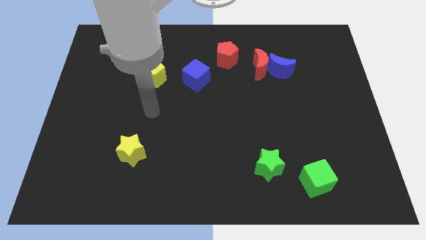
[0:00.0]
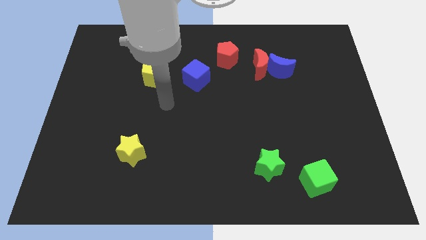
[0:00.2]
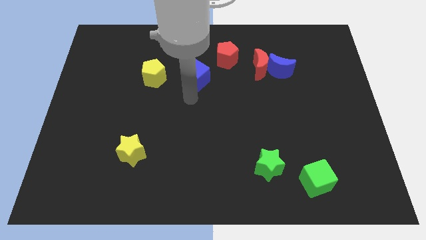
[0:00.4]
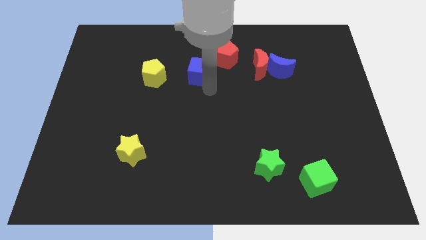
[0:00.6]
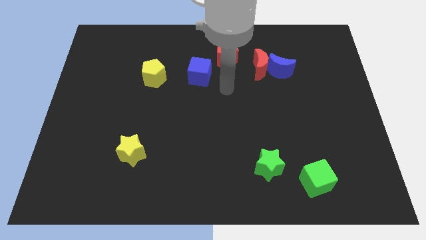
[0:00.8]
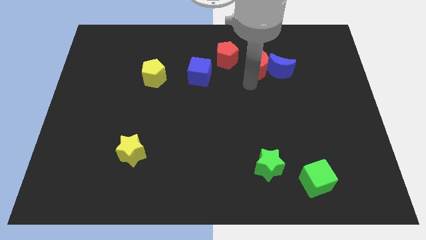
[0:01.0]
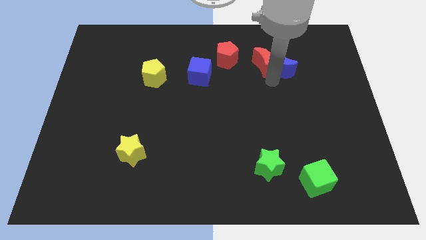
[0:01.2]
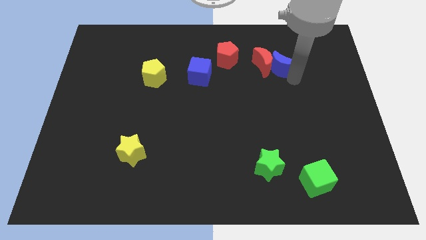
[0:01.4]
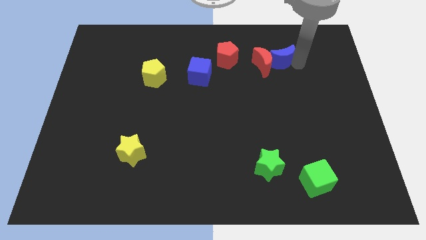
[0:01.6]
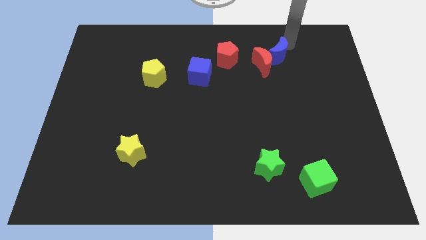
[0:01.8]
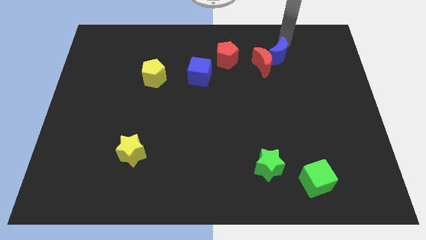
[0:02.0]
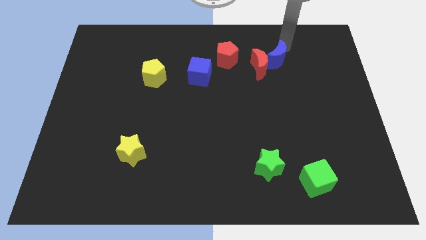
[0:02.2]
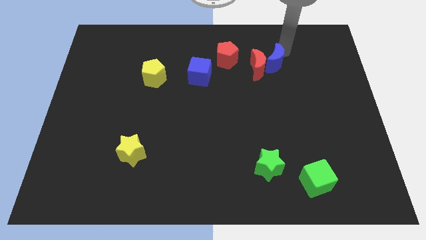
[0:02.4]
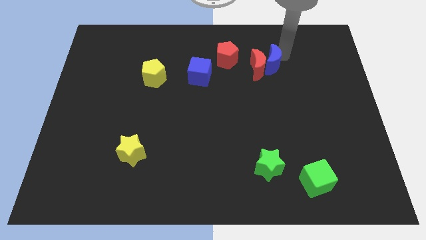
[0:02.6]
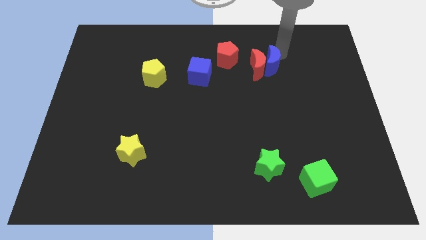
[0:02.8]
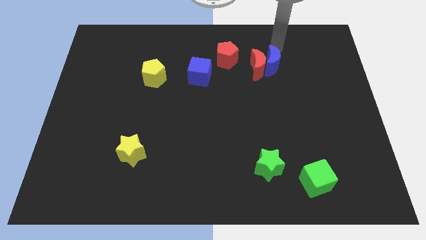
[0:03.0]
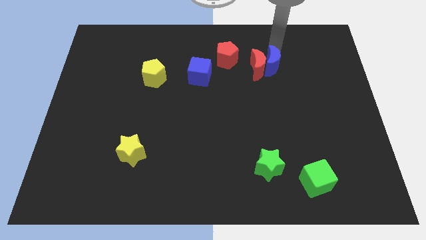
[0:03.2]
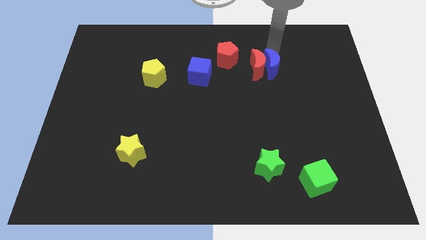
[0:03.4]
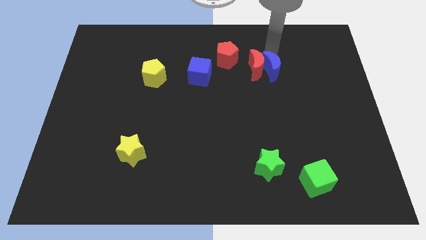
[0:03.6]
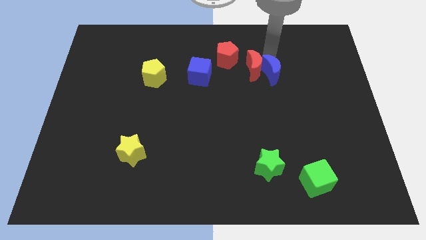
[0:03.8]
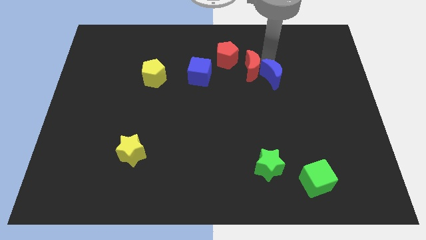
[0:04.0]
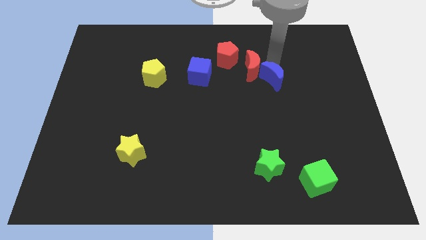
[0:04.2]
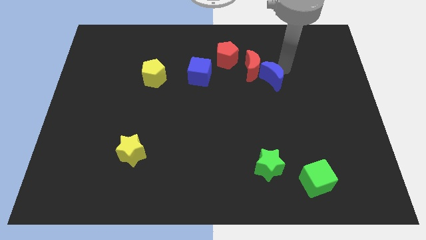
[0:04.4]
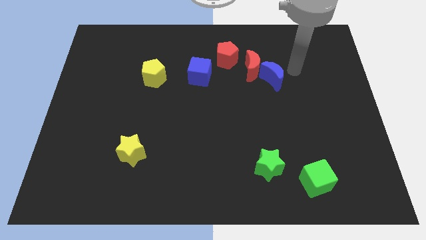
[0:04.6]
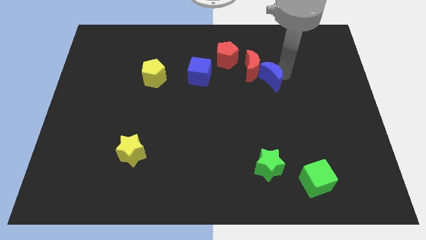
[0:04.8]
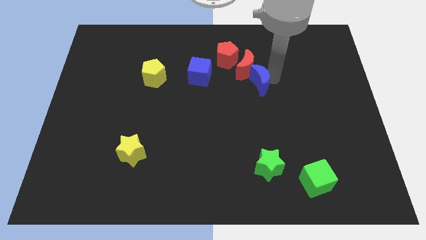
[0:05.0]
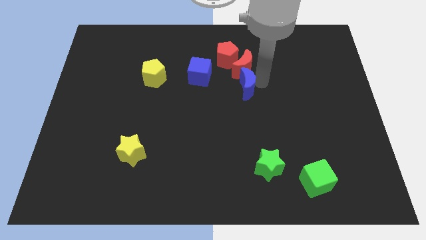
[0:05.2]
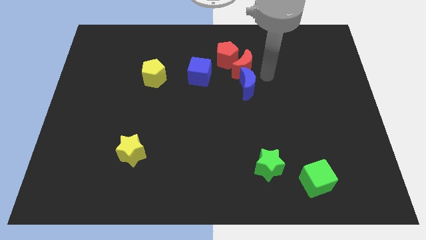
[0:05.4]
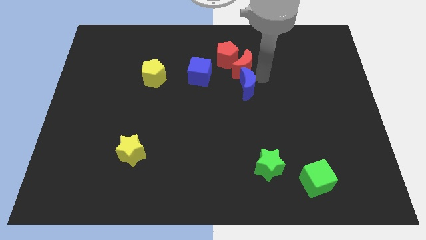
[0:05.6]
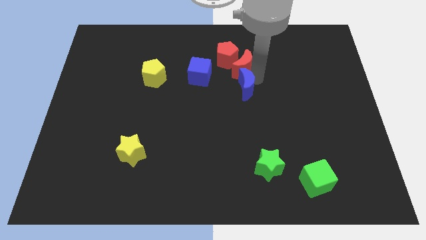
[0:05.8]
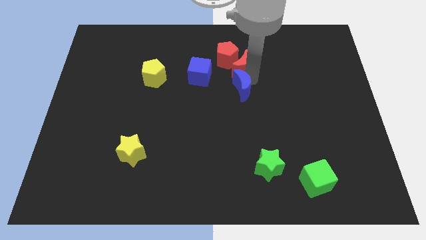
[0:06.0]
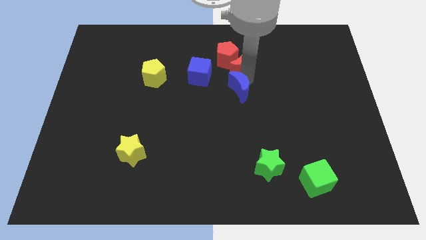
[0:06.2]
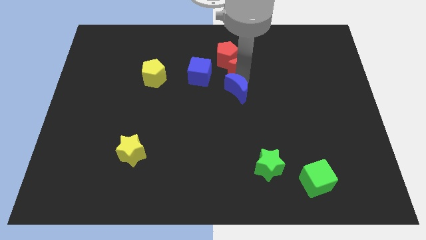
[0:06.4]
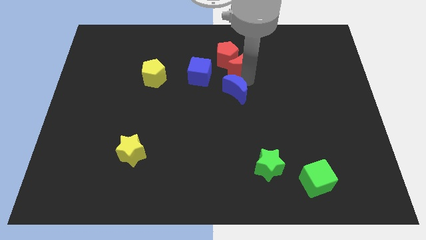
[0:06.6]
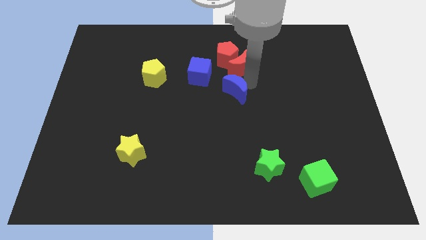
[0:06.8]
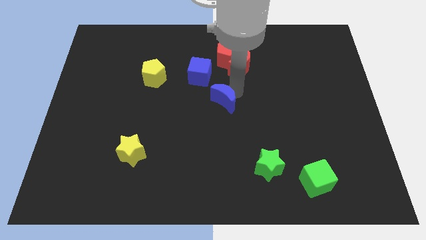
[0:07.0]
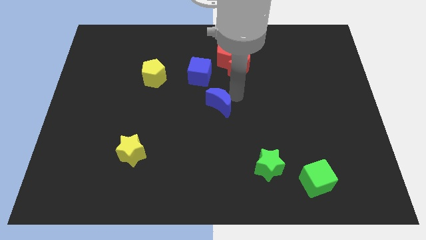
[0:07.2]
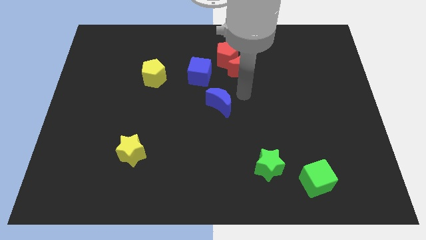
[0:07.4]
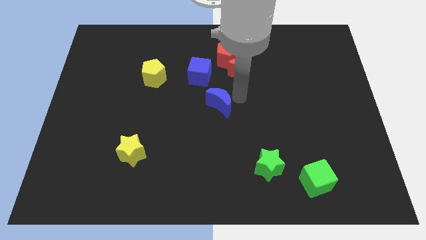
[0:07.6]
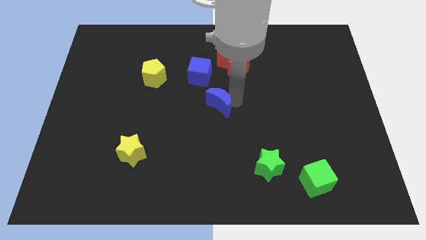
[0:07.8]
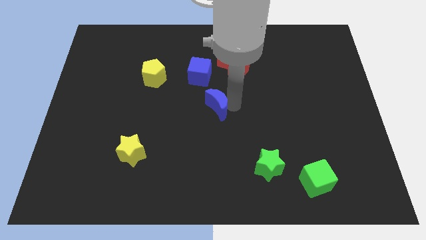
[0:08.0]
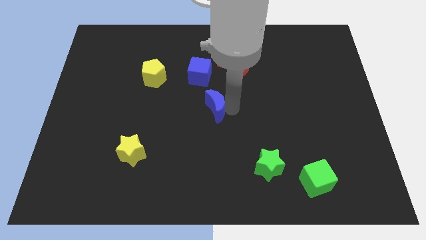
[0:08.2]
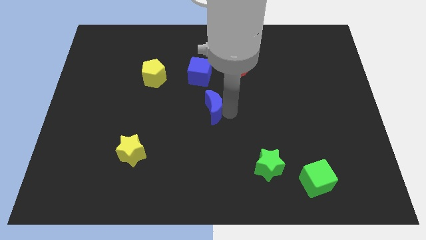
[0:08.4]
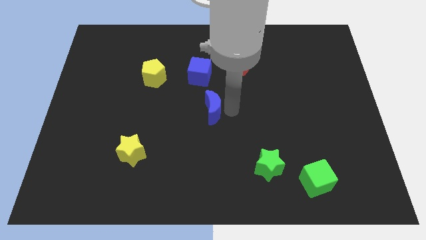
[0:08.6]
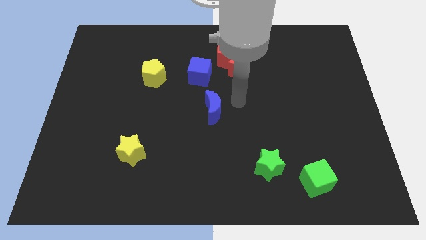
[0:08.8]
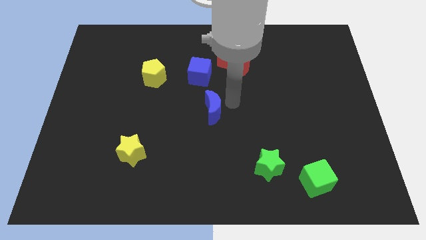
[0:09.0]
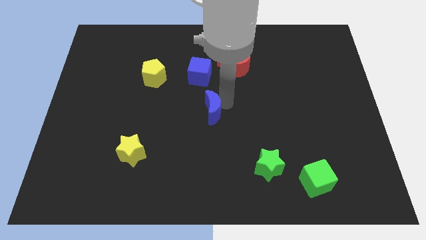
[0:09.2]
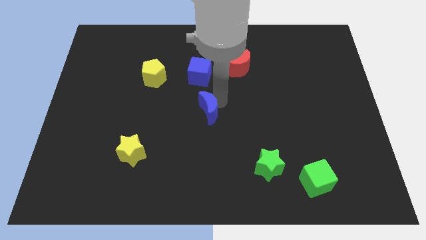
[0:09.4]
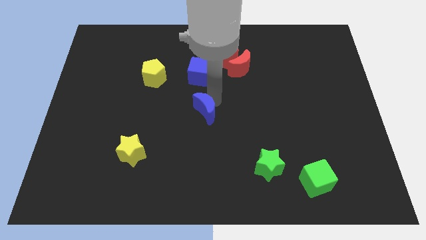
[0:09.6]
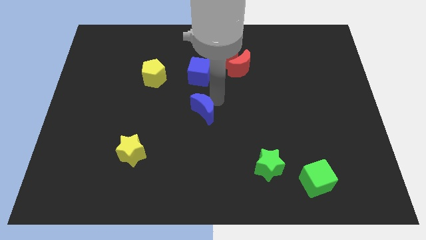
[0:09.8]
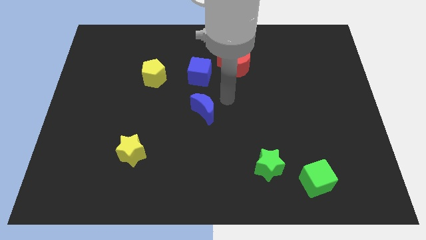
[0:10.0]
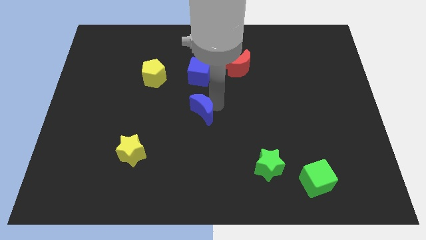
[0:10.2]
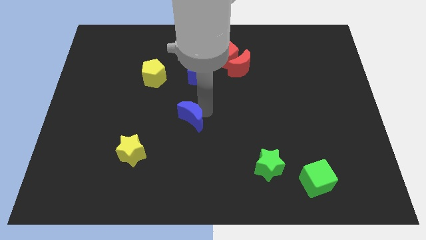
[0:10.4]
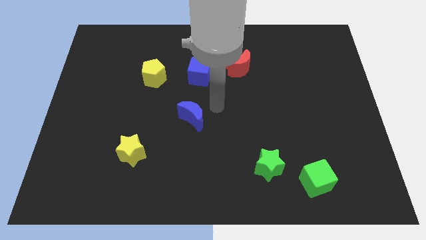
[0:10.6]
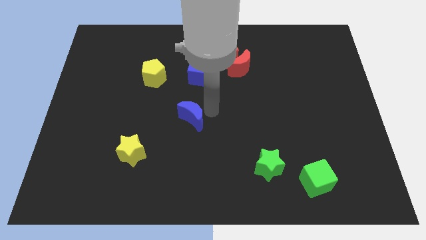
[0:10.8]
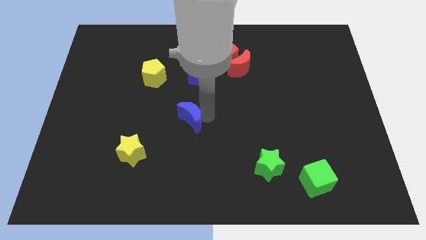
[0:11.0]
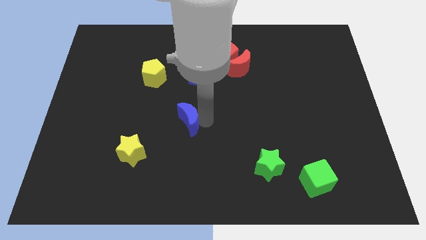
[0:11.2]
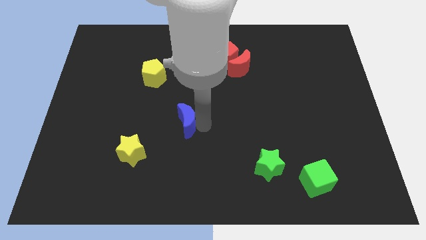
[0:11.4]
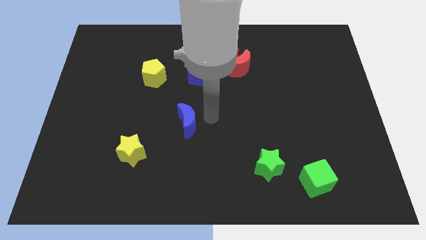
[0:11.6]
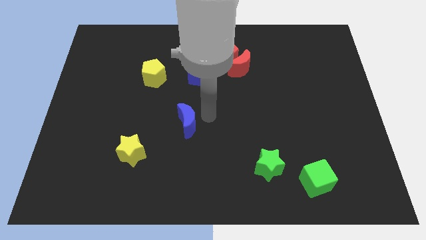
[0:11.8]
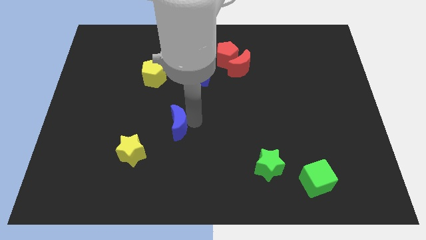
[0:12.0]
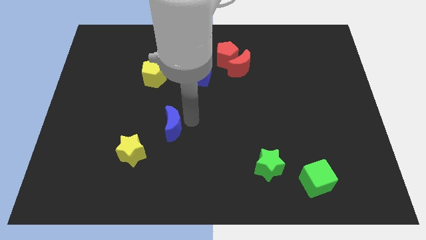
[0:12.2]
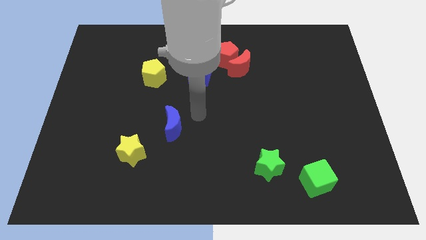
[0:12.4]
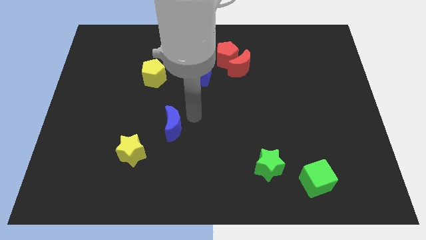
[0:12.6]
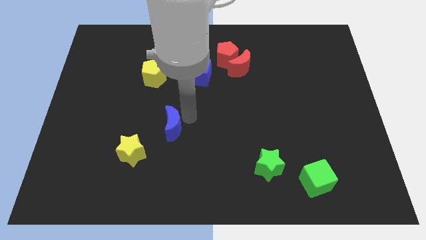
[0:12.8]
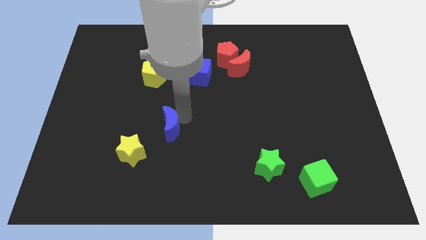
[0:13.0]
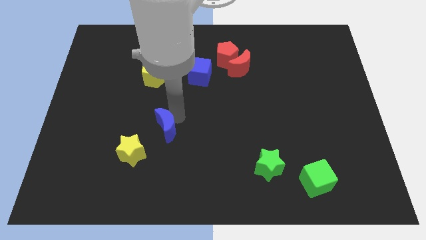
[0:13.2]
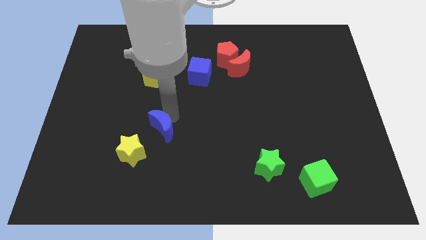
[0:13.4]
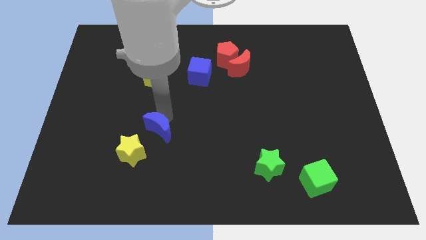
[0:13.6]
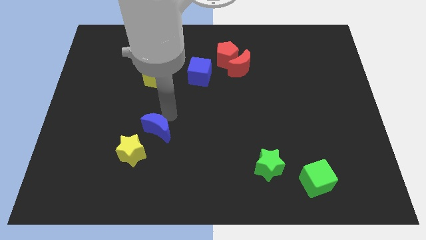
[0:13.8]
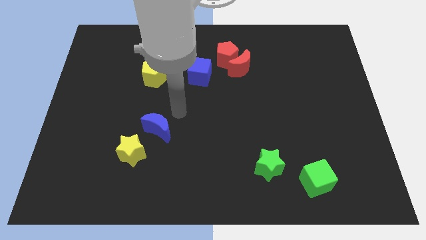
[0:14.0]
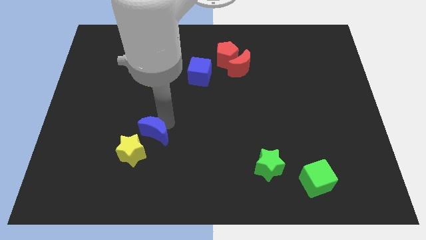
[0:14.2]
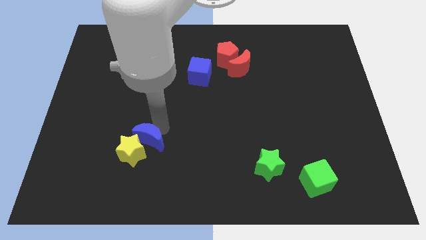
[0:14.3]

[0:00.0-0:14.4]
move the blue moon close to the yellow star

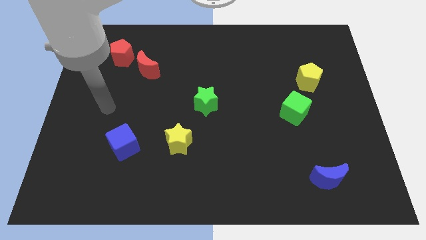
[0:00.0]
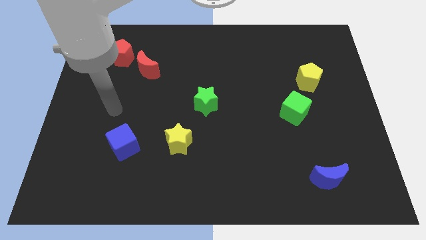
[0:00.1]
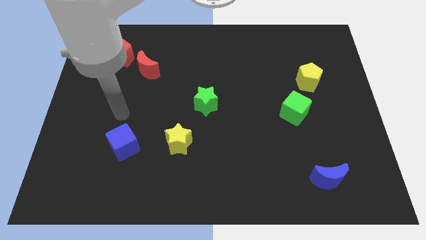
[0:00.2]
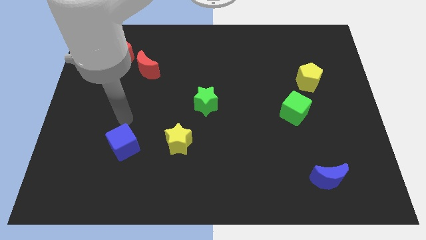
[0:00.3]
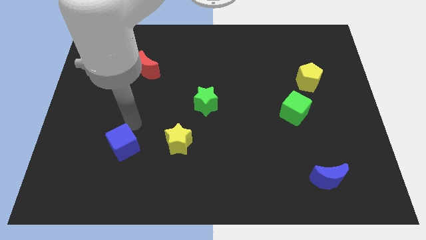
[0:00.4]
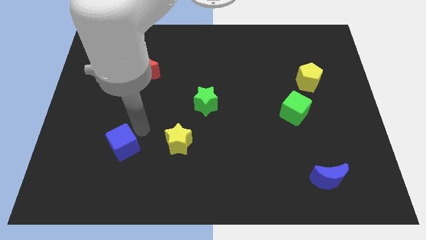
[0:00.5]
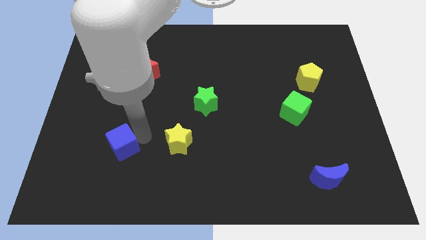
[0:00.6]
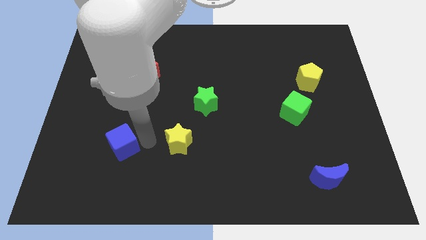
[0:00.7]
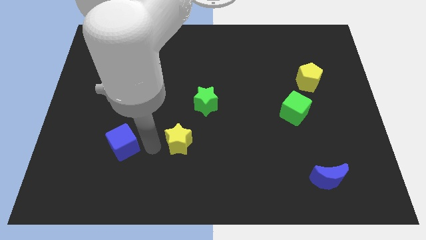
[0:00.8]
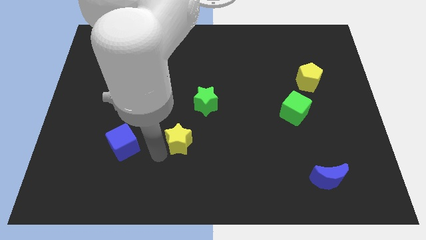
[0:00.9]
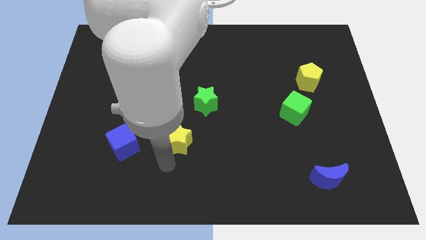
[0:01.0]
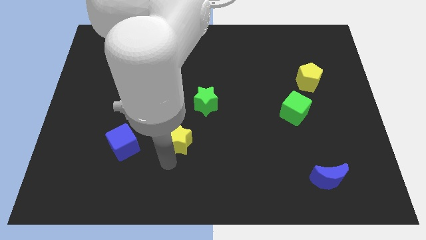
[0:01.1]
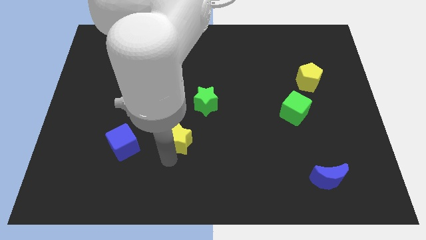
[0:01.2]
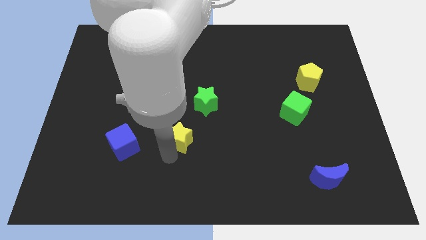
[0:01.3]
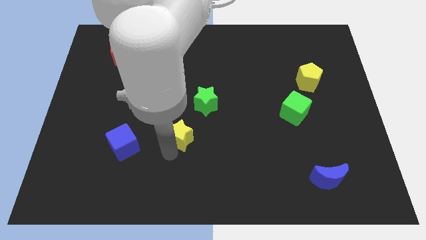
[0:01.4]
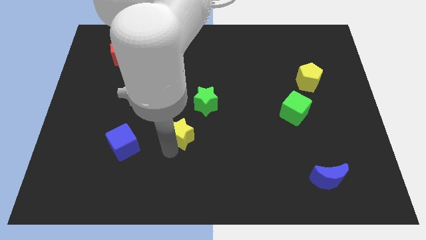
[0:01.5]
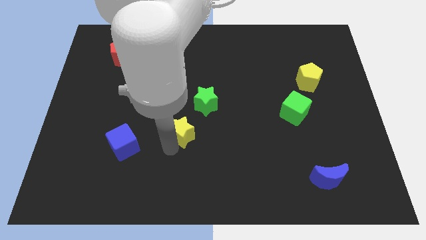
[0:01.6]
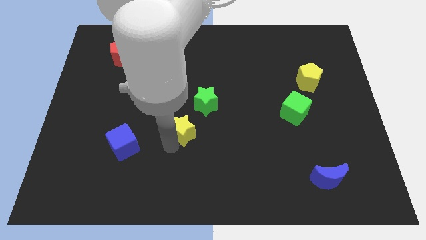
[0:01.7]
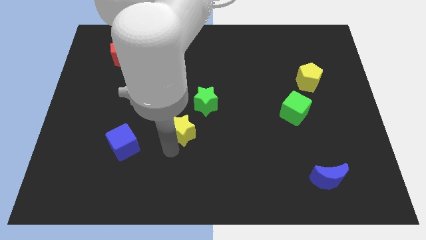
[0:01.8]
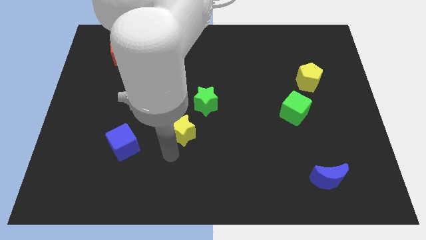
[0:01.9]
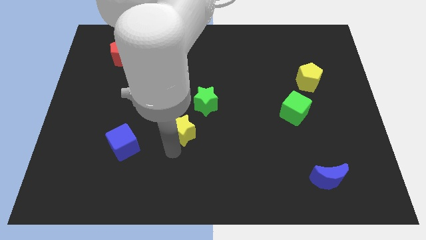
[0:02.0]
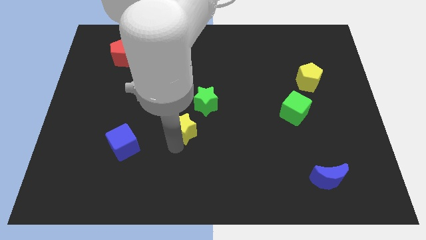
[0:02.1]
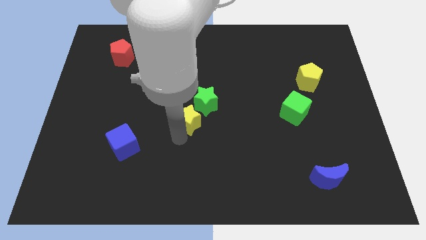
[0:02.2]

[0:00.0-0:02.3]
push the yellow star to the green star
